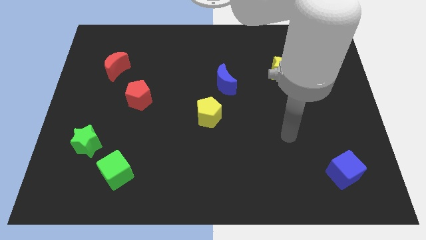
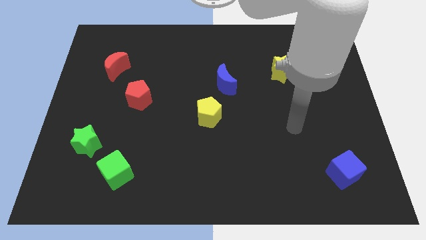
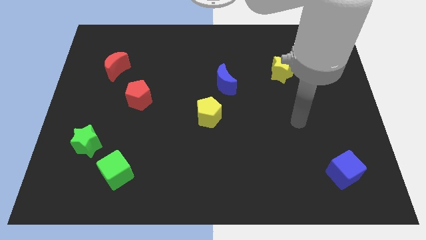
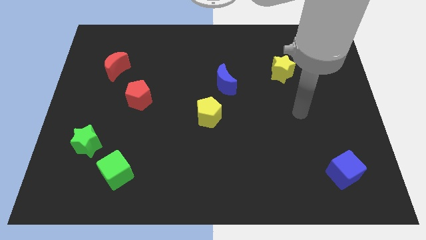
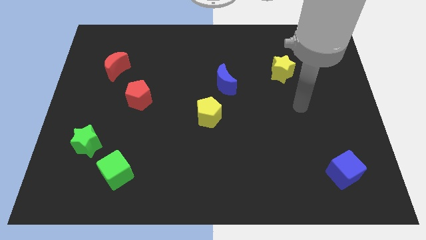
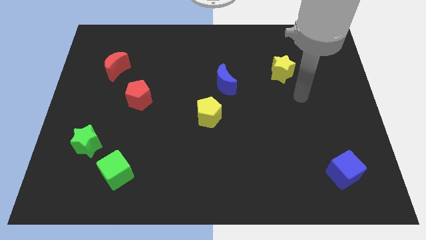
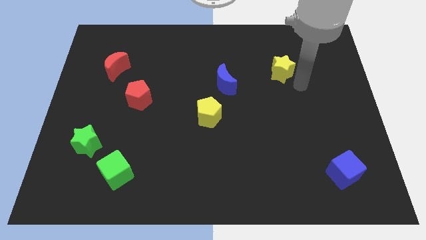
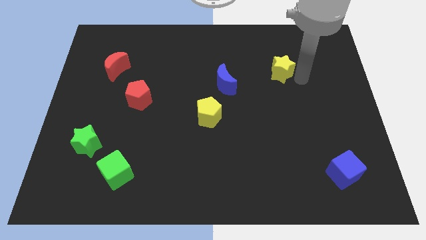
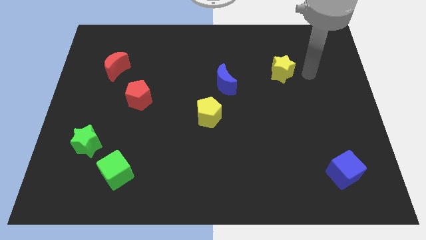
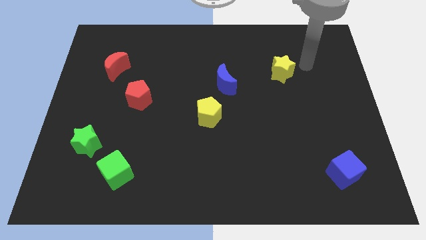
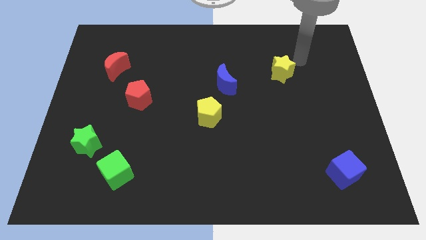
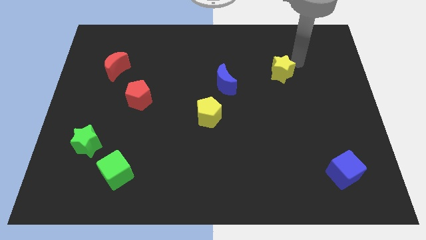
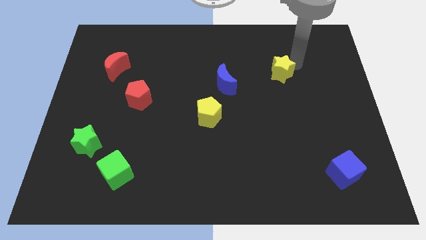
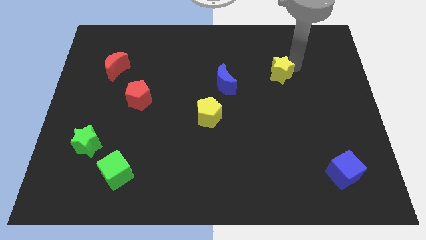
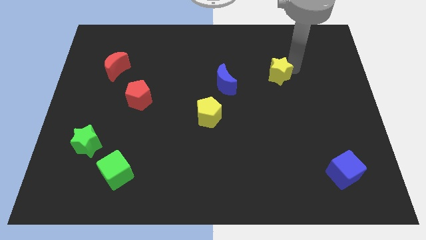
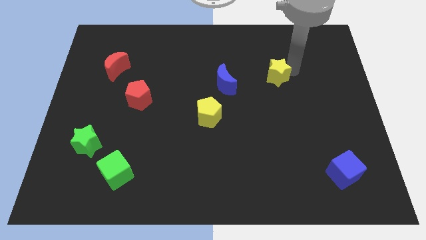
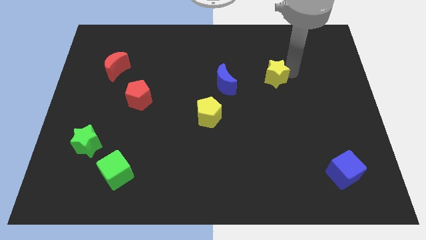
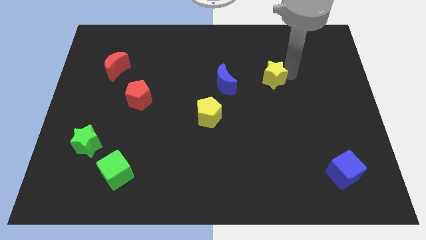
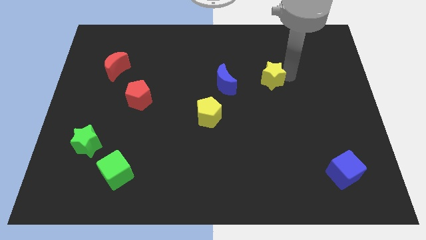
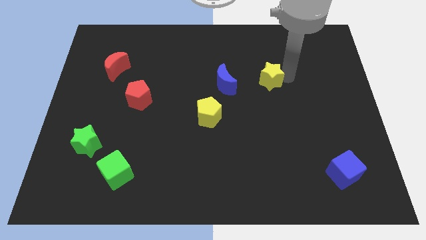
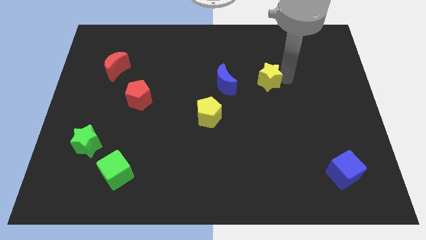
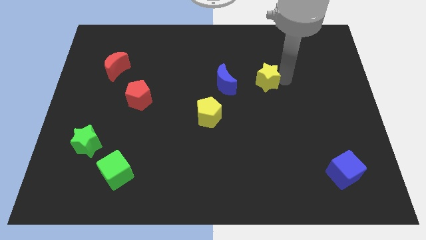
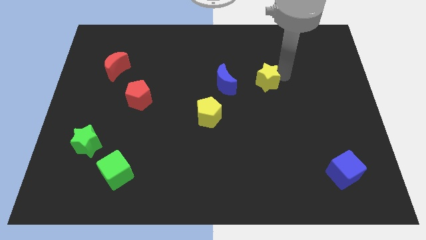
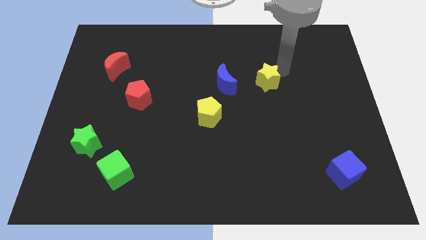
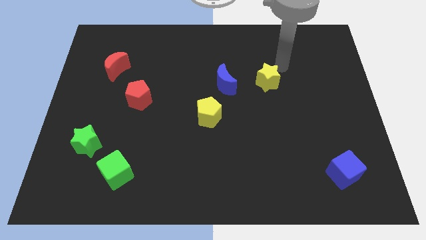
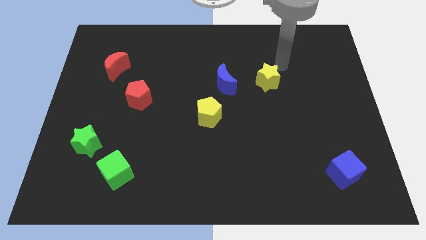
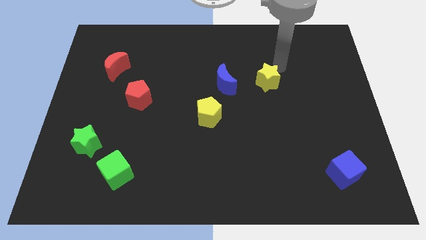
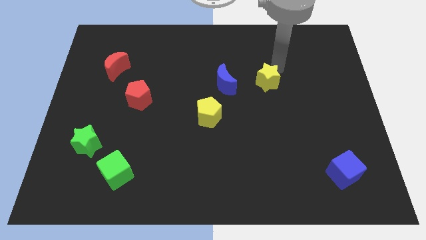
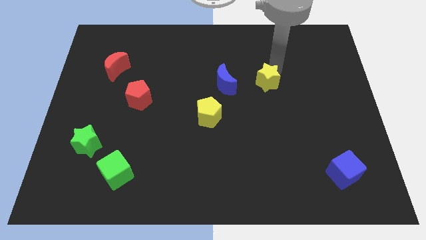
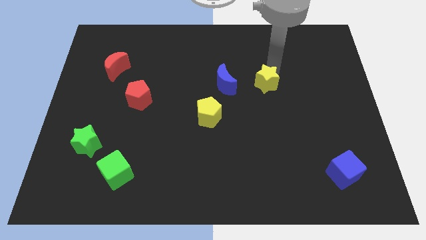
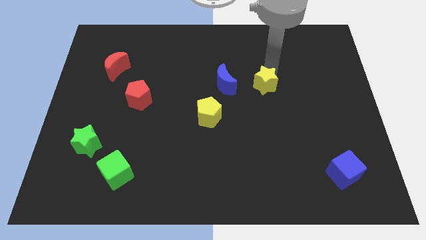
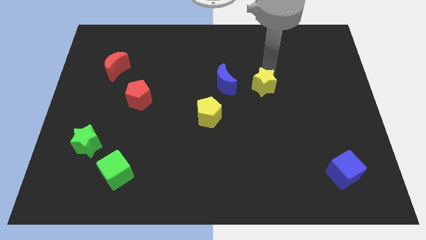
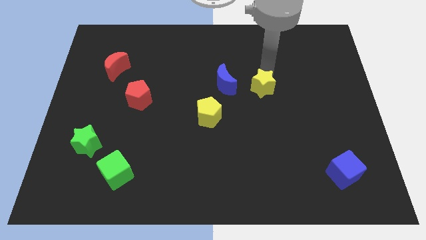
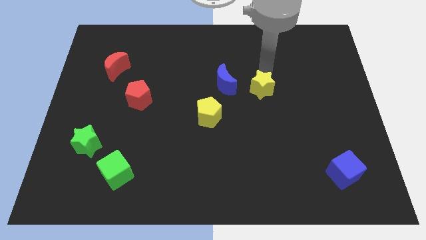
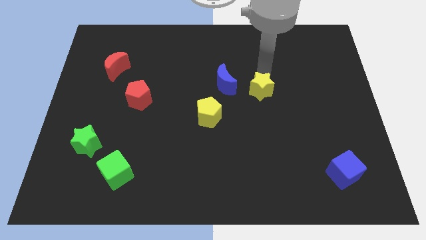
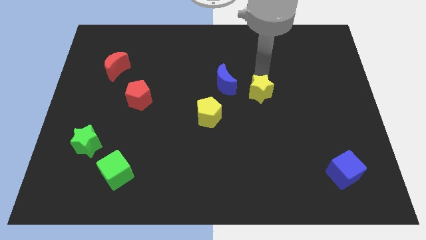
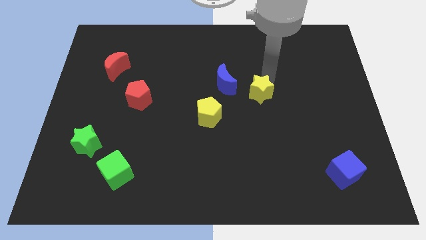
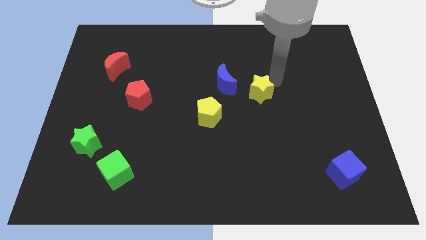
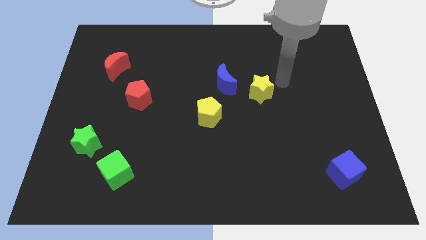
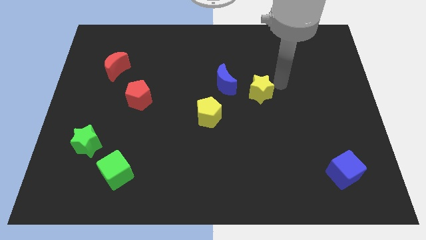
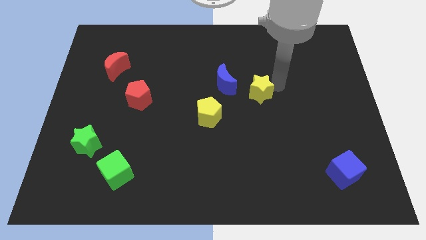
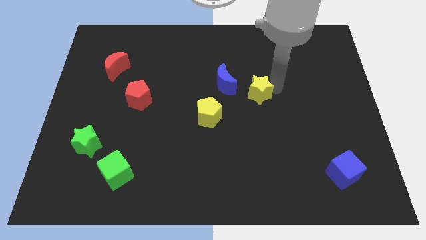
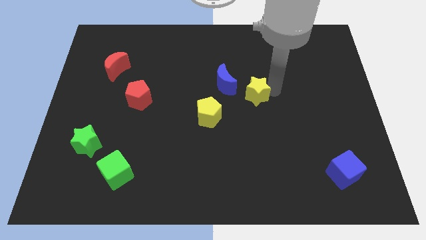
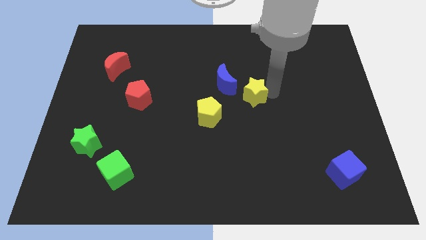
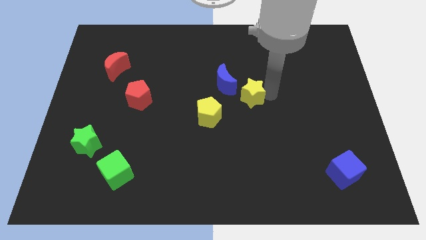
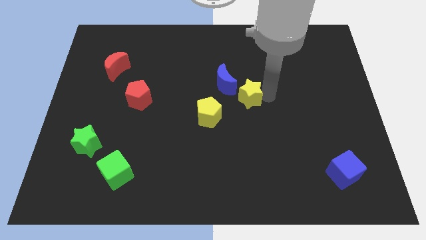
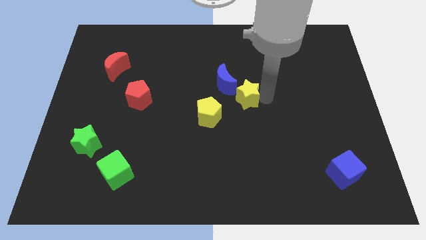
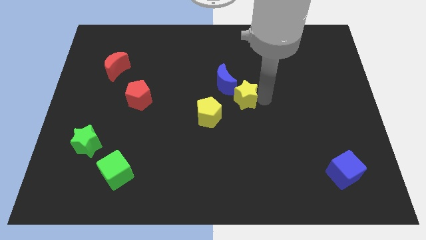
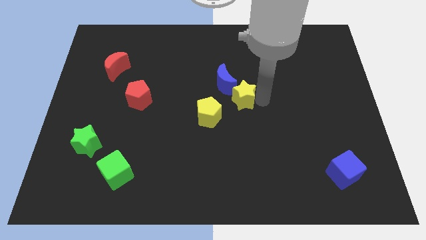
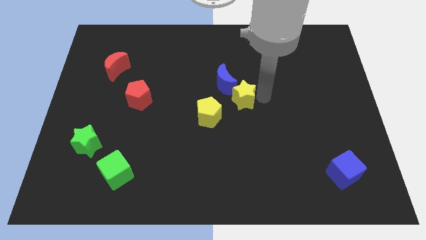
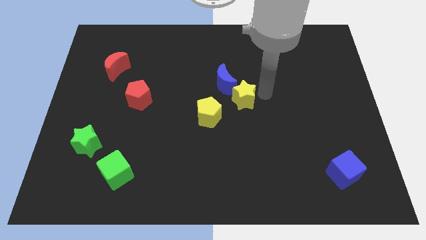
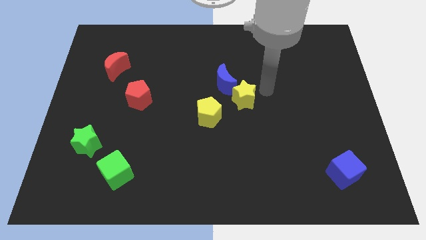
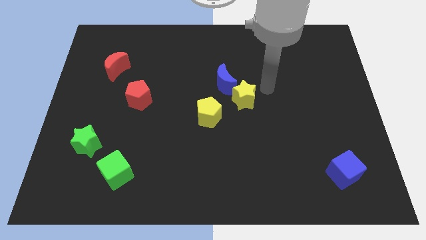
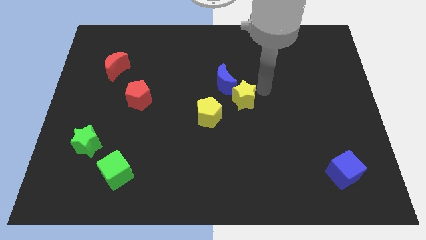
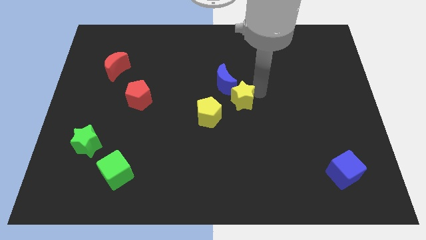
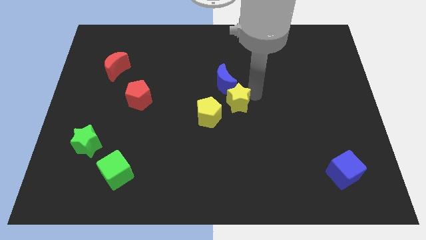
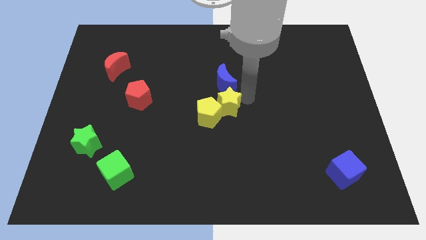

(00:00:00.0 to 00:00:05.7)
put the yellow star close to the yellow pentagon

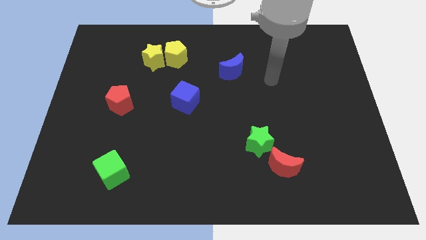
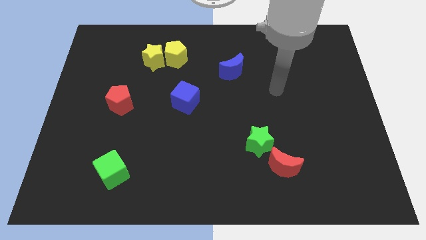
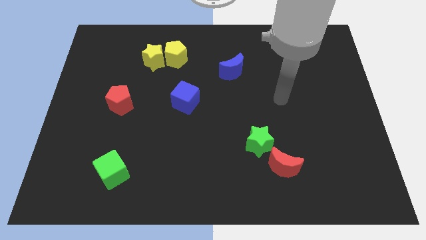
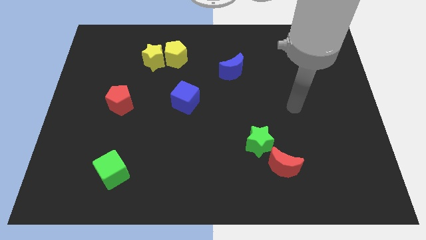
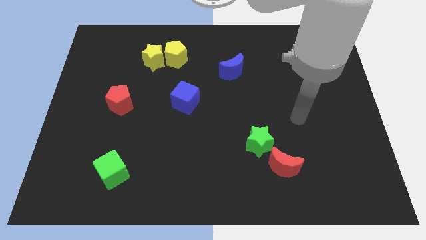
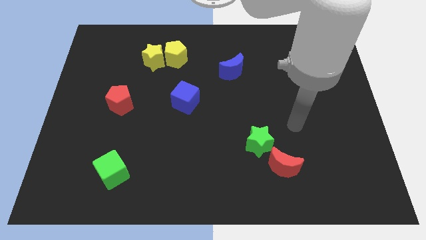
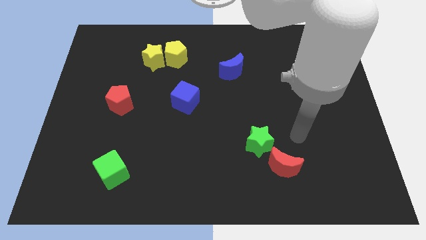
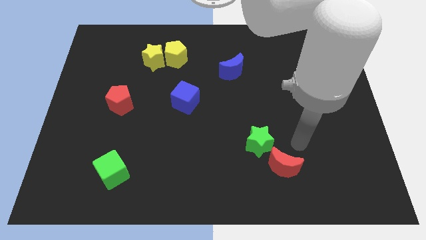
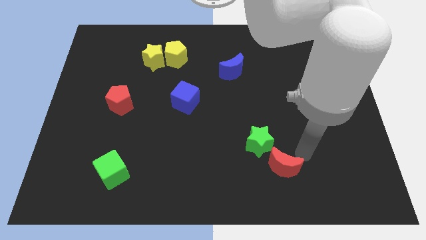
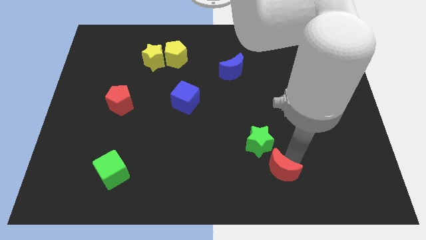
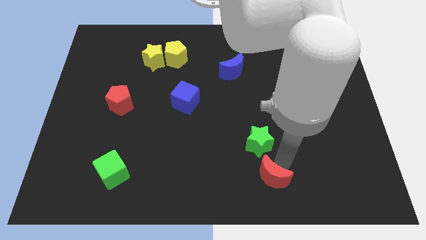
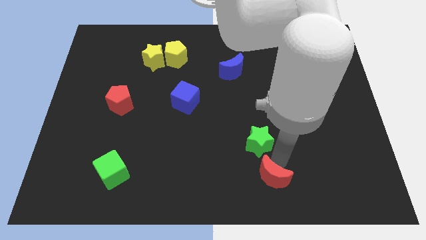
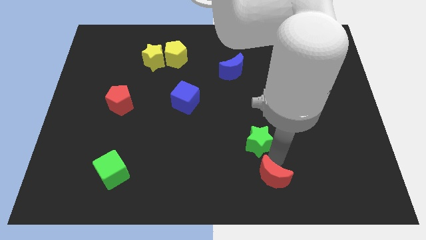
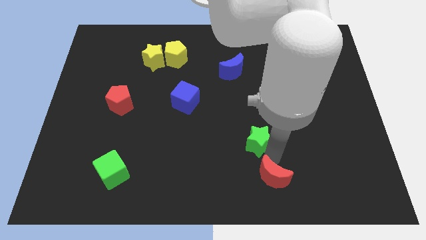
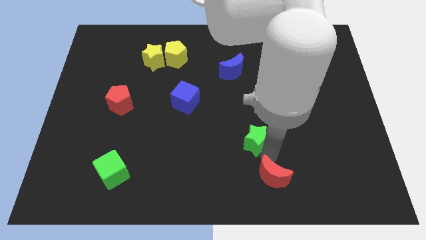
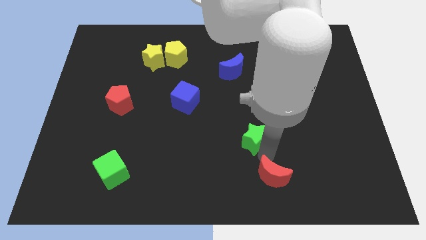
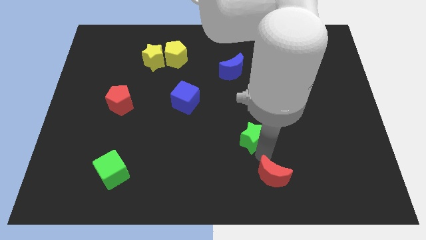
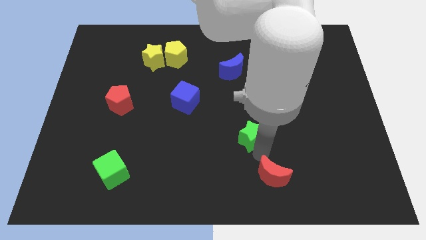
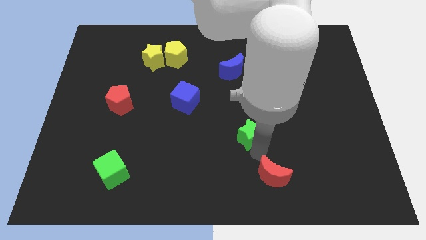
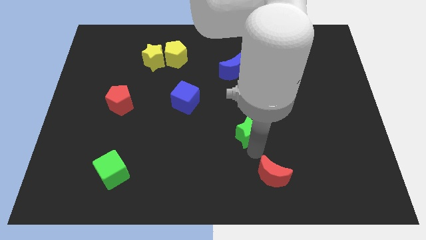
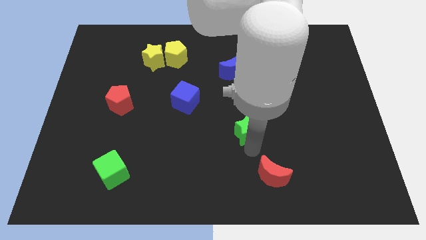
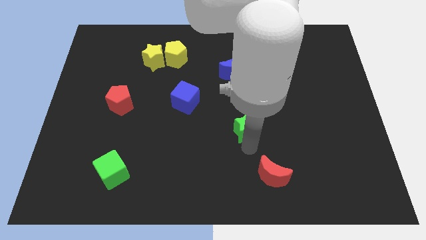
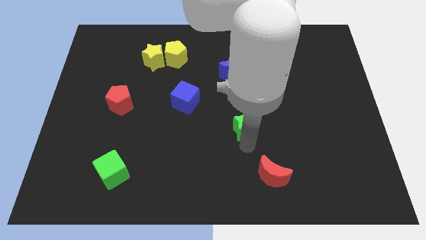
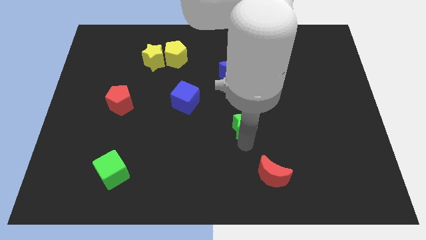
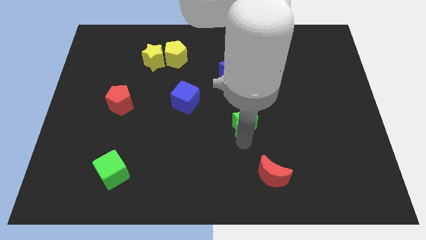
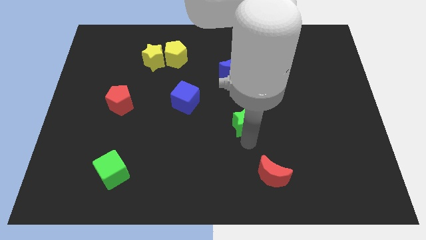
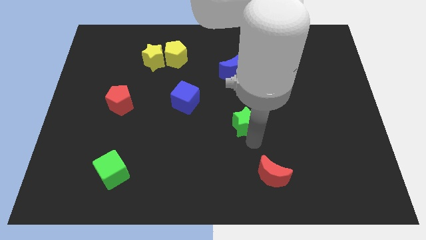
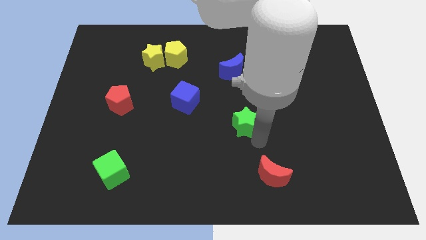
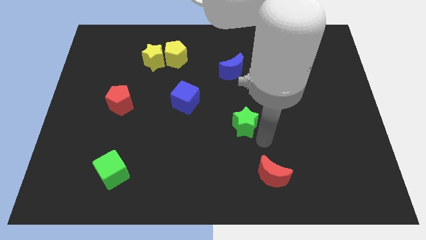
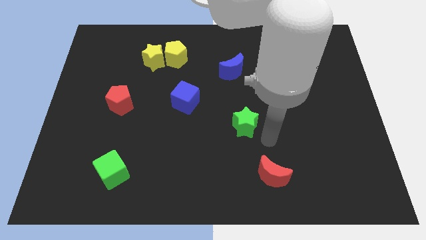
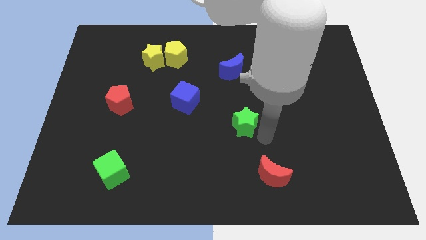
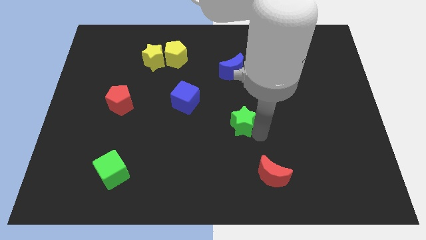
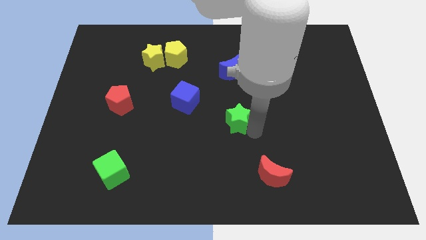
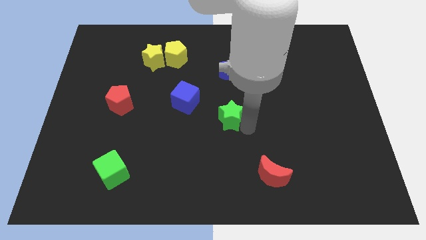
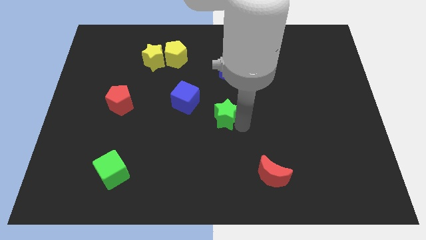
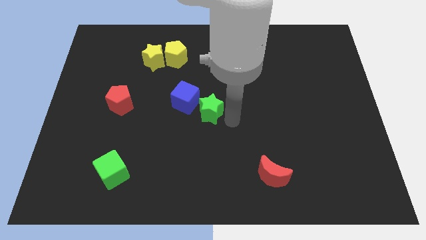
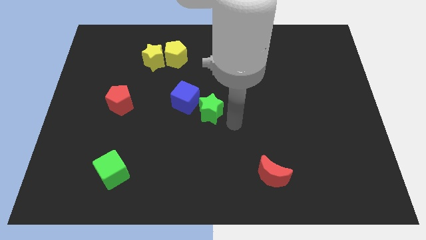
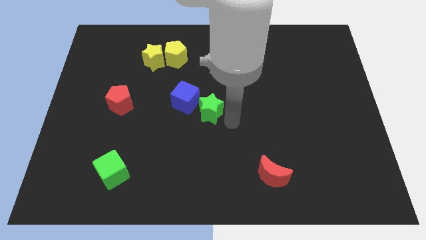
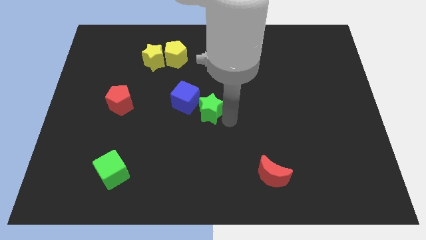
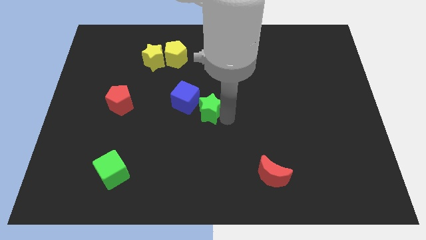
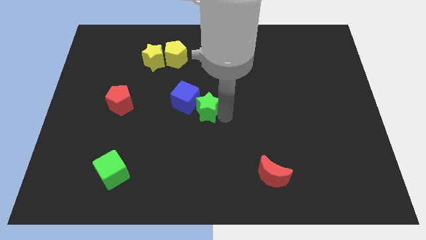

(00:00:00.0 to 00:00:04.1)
put the green star towards the blue cube
